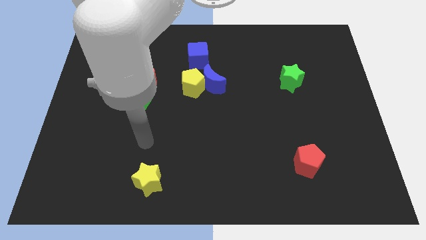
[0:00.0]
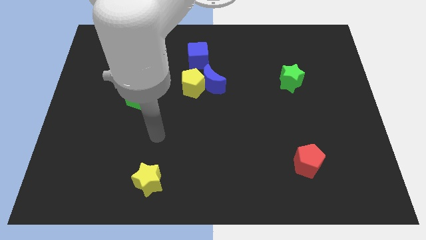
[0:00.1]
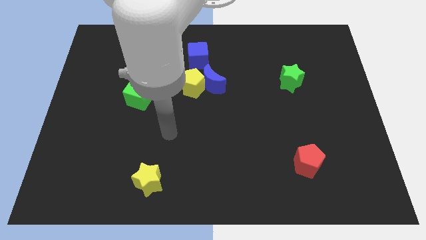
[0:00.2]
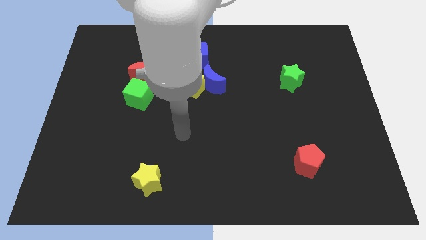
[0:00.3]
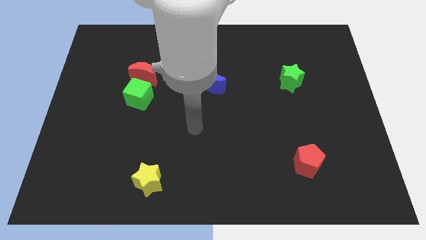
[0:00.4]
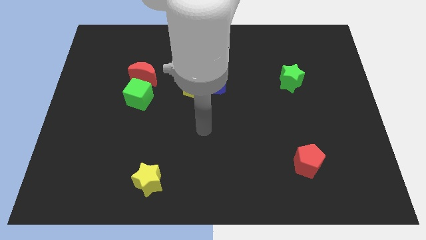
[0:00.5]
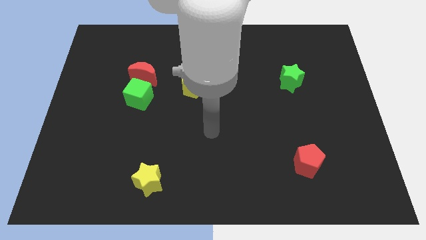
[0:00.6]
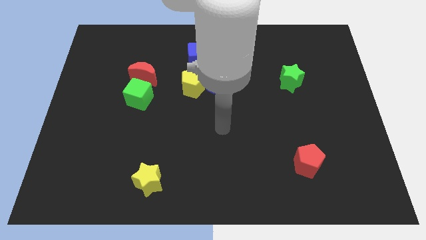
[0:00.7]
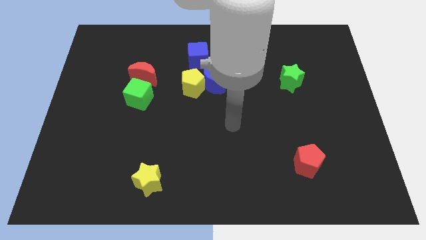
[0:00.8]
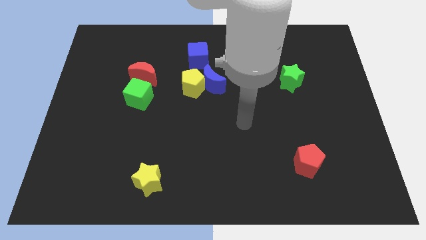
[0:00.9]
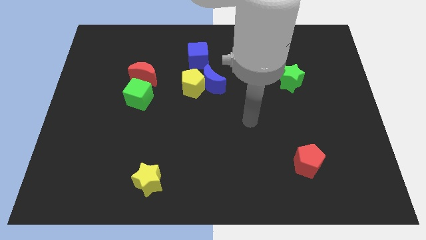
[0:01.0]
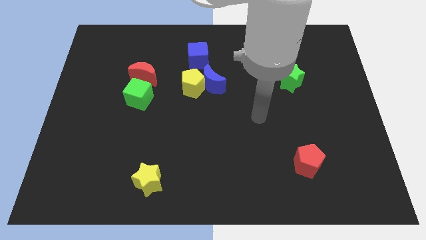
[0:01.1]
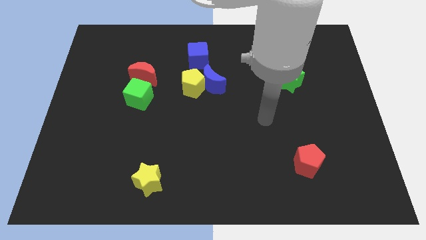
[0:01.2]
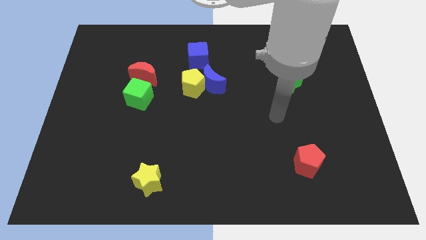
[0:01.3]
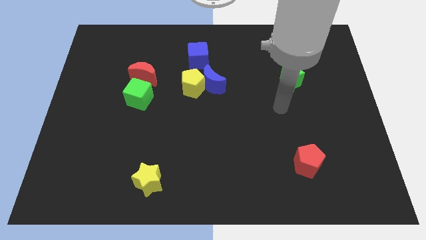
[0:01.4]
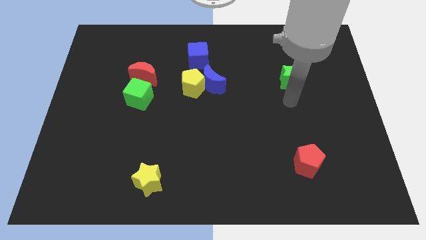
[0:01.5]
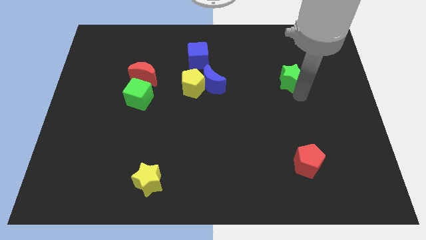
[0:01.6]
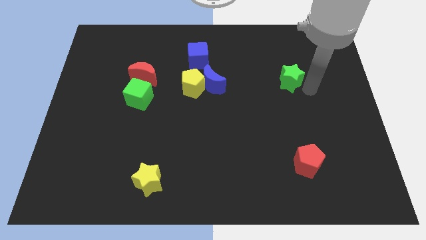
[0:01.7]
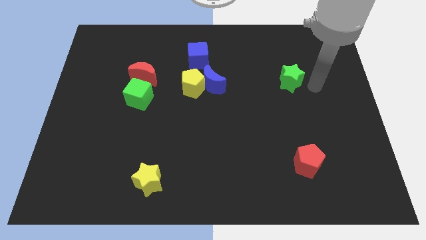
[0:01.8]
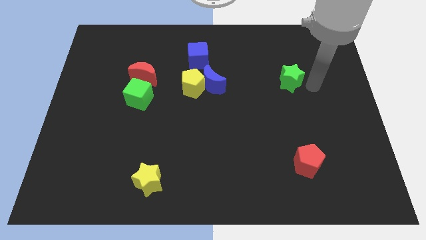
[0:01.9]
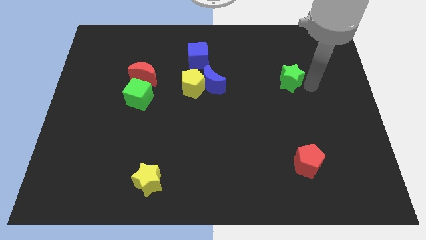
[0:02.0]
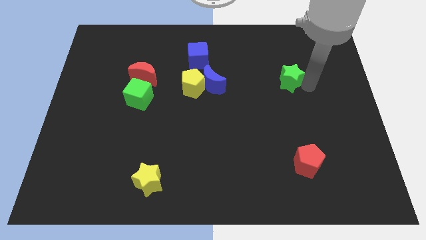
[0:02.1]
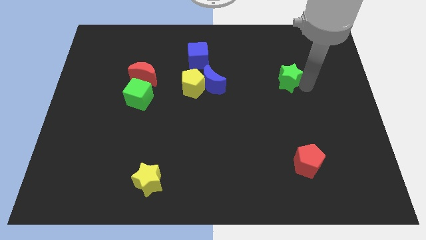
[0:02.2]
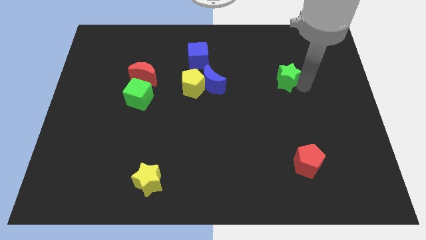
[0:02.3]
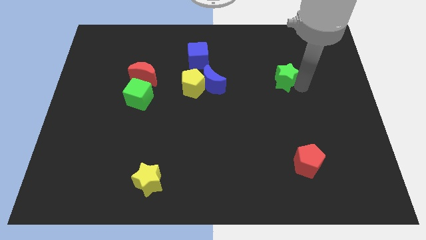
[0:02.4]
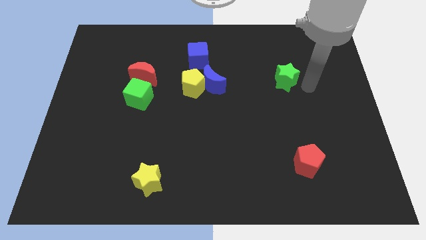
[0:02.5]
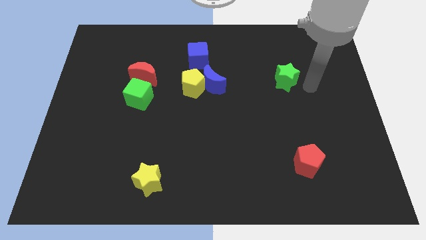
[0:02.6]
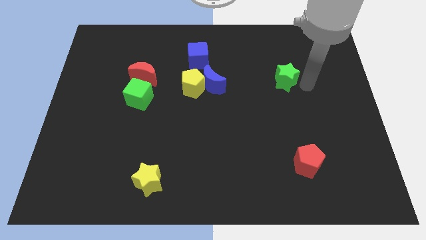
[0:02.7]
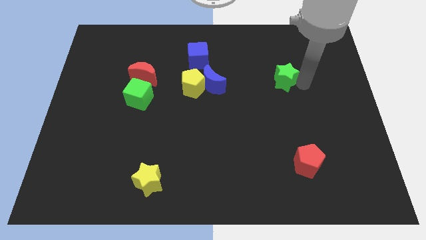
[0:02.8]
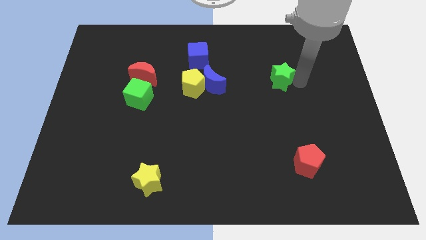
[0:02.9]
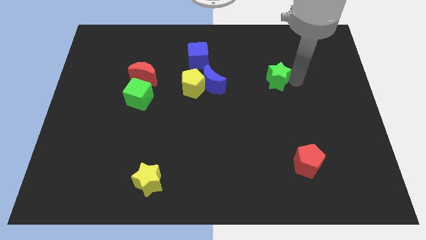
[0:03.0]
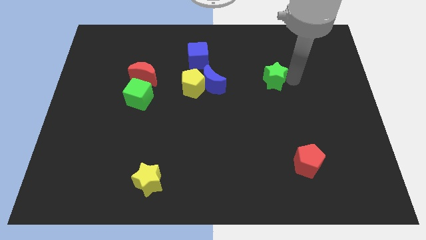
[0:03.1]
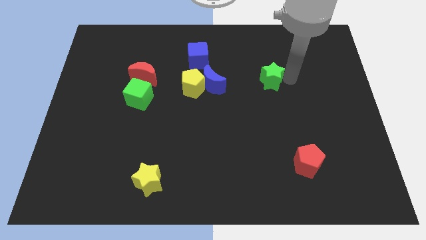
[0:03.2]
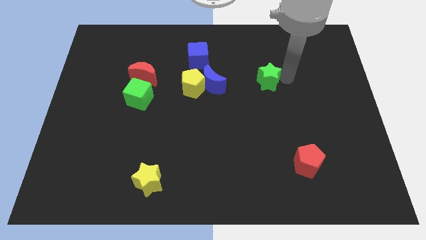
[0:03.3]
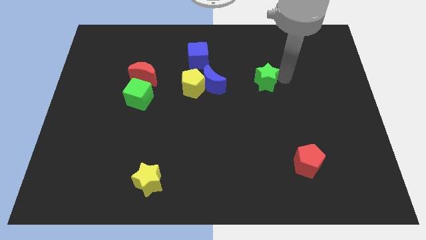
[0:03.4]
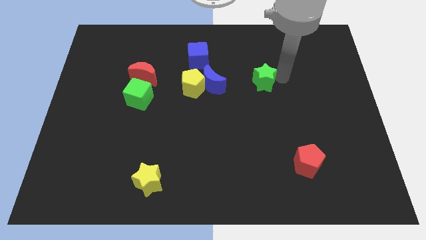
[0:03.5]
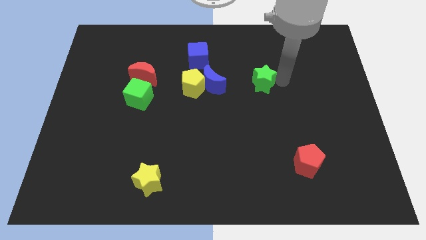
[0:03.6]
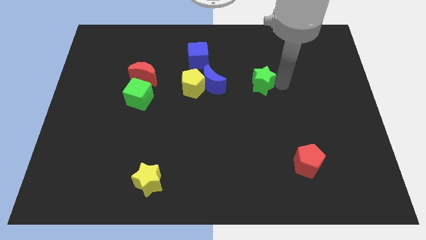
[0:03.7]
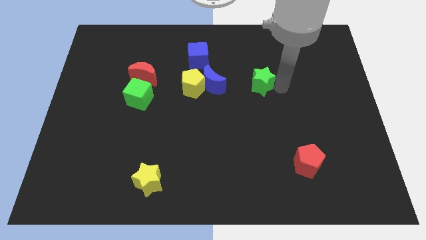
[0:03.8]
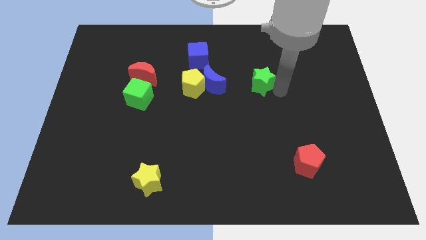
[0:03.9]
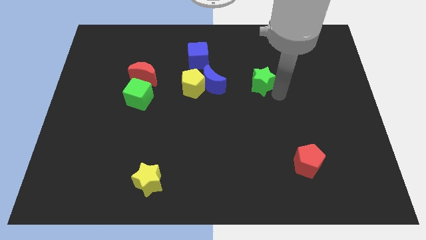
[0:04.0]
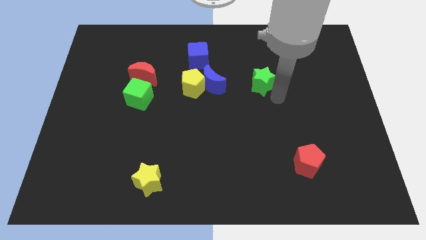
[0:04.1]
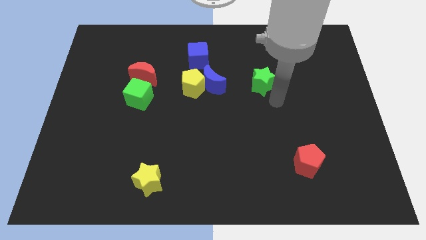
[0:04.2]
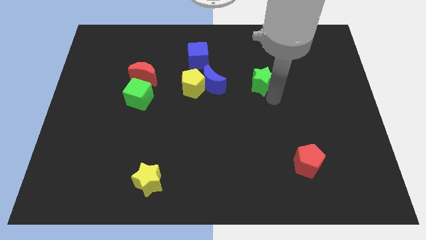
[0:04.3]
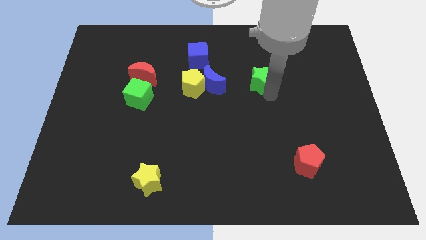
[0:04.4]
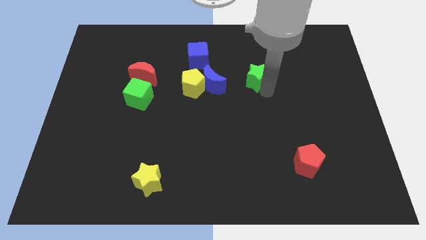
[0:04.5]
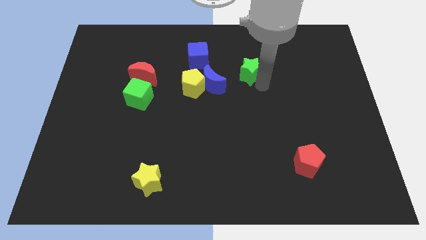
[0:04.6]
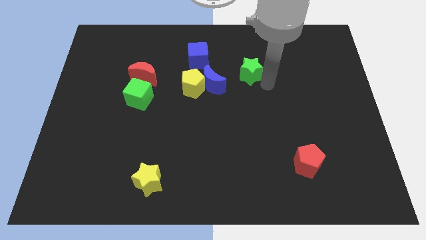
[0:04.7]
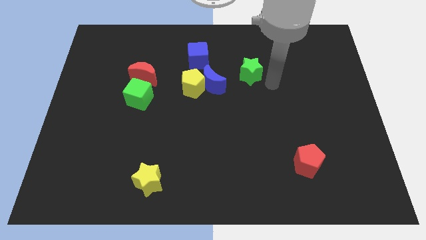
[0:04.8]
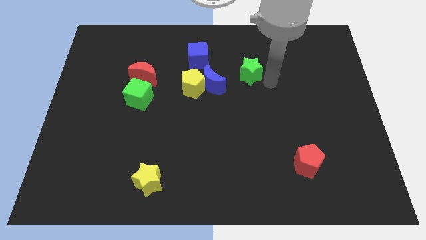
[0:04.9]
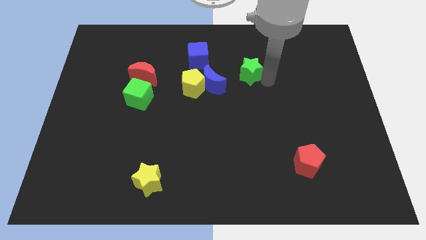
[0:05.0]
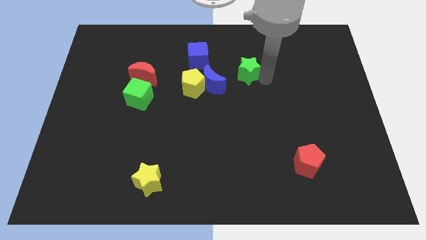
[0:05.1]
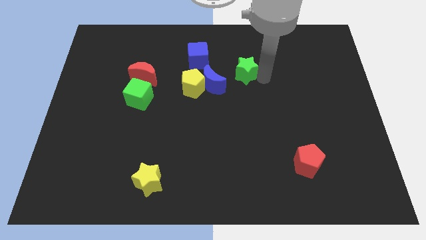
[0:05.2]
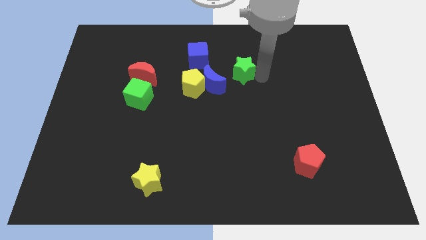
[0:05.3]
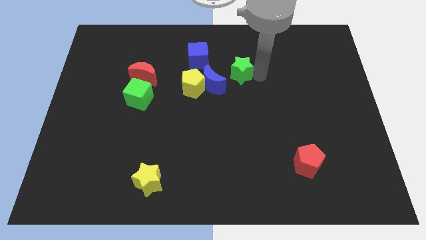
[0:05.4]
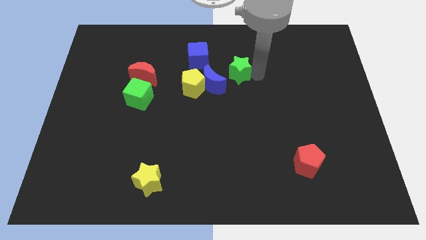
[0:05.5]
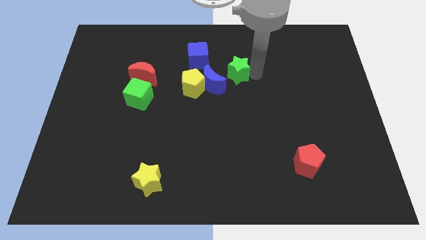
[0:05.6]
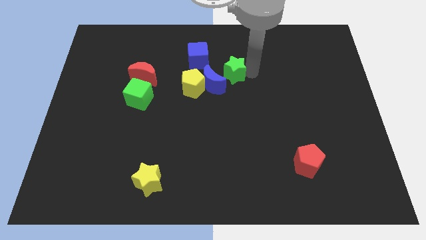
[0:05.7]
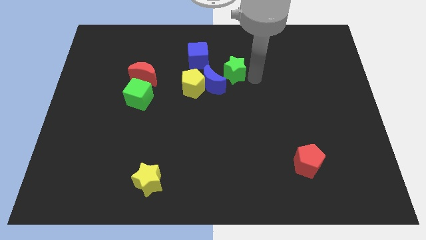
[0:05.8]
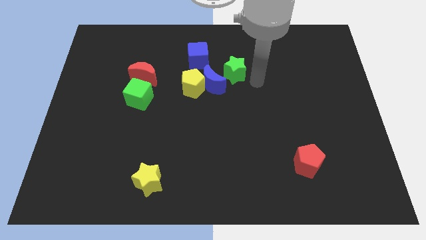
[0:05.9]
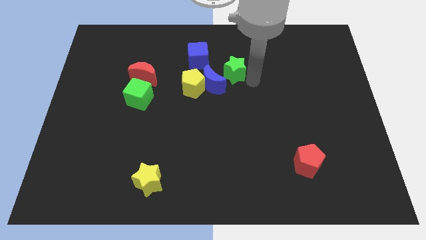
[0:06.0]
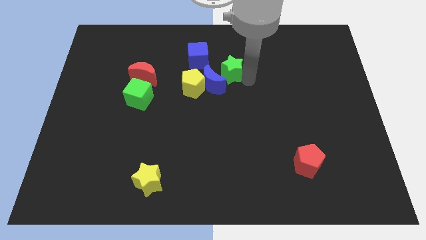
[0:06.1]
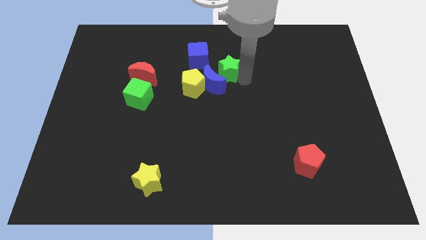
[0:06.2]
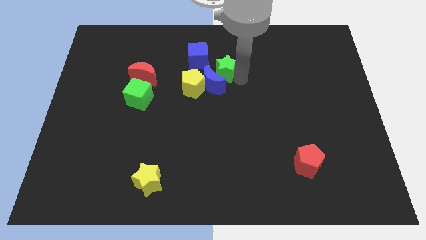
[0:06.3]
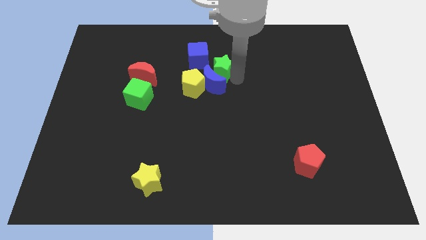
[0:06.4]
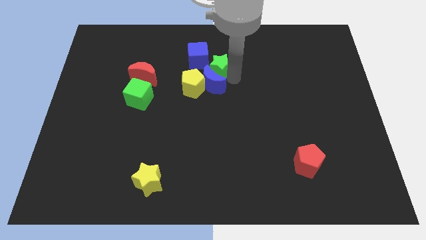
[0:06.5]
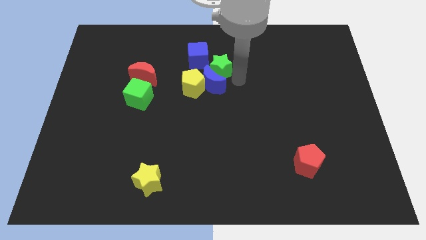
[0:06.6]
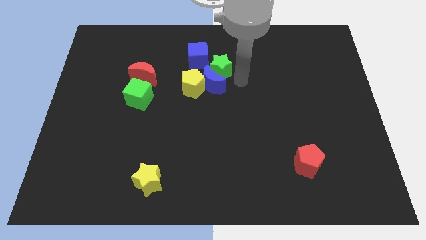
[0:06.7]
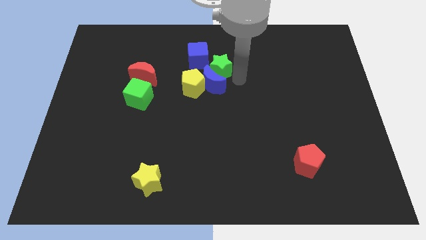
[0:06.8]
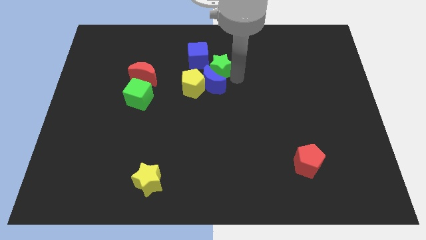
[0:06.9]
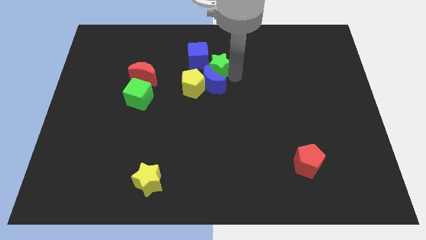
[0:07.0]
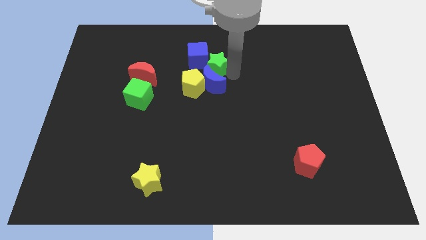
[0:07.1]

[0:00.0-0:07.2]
push the green star to the blue cube

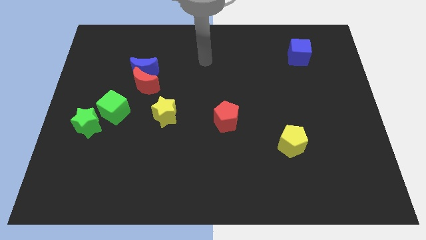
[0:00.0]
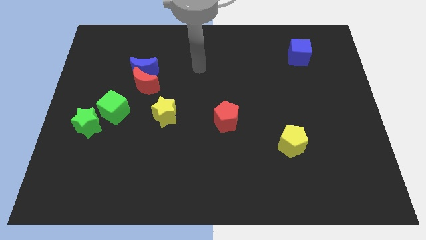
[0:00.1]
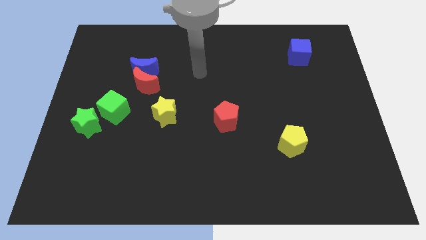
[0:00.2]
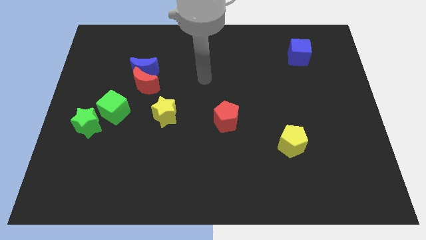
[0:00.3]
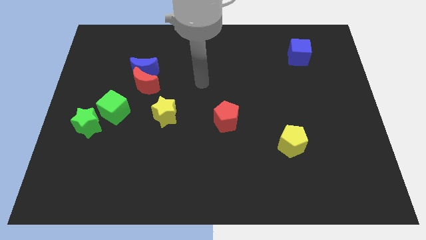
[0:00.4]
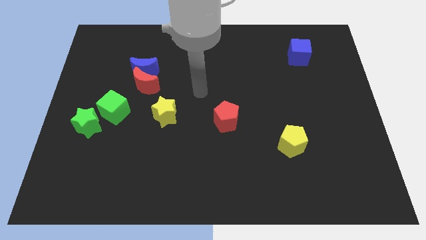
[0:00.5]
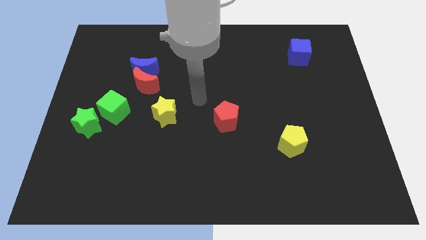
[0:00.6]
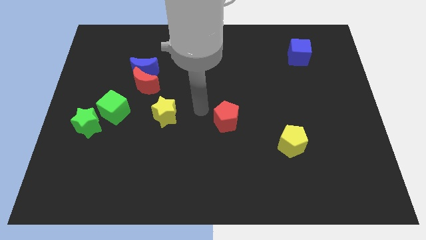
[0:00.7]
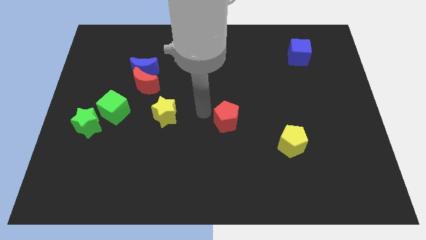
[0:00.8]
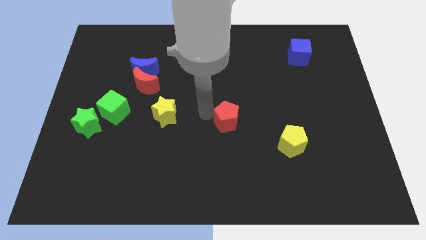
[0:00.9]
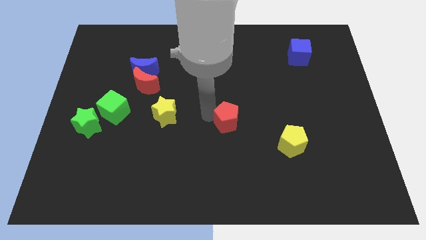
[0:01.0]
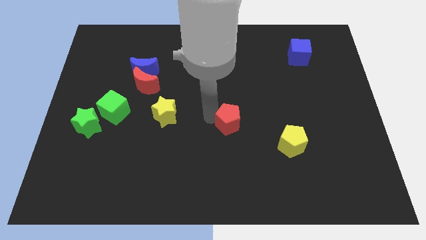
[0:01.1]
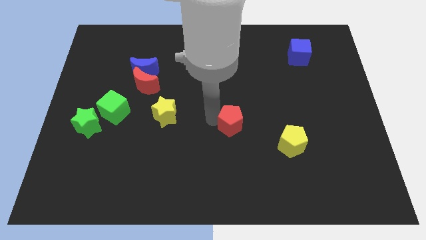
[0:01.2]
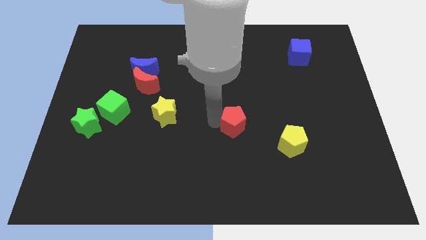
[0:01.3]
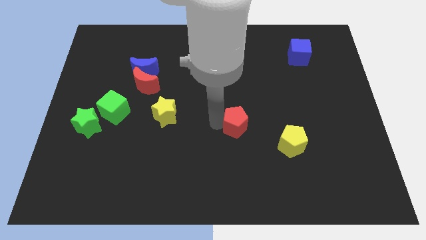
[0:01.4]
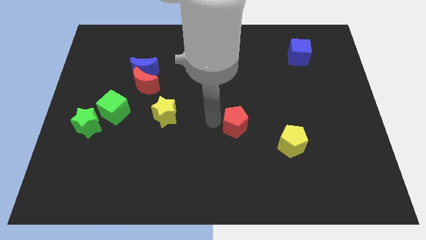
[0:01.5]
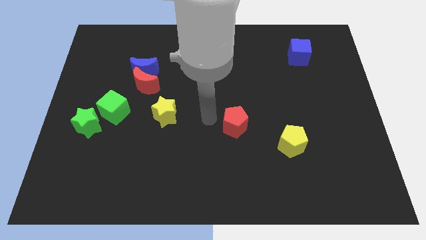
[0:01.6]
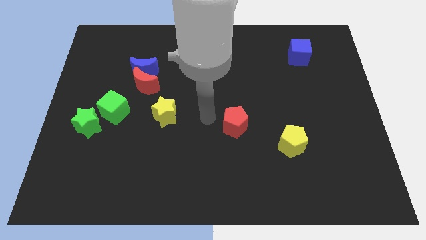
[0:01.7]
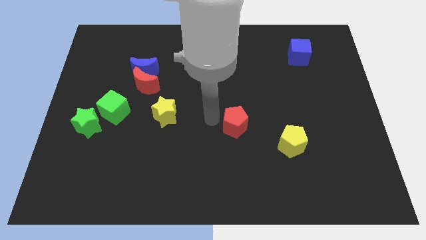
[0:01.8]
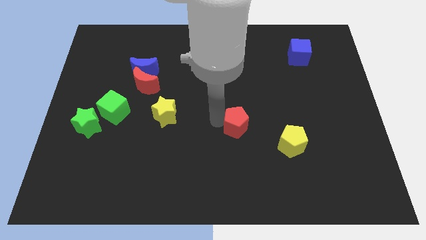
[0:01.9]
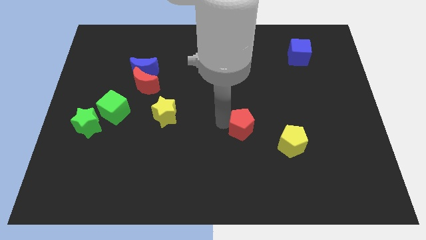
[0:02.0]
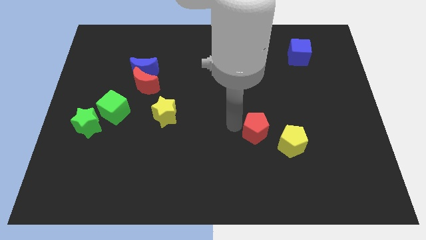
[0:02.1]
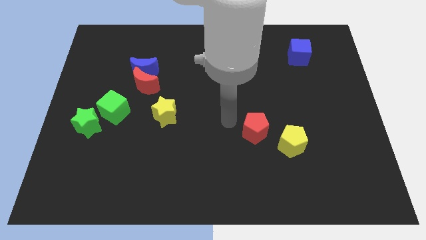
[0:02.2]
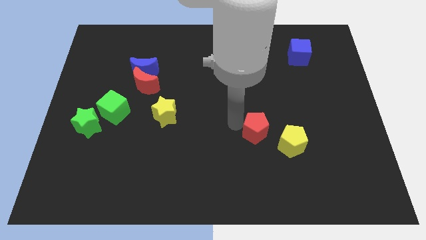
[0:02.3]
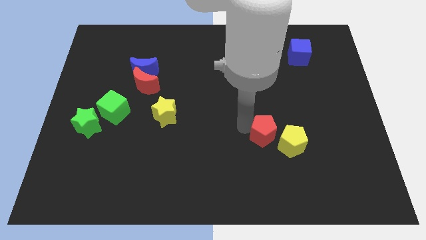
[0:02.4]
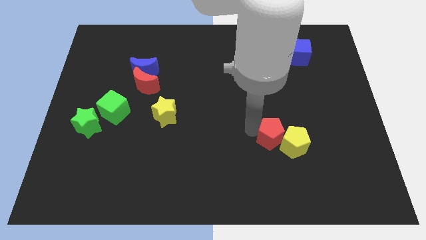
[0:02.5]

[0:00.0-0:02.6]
push the red pentagon next to the yellow pentagon
